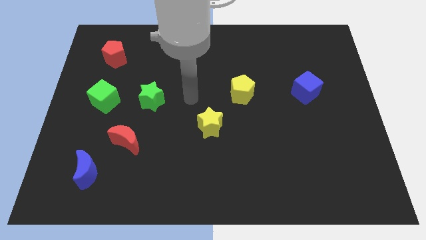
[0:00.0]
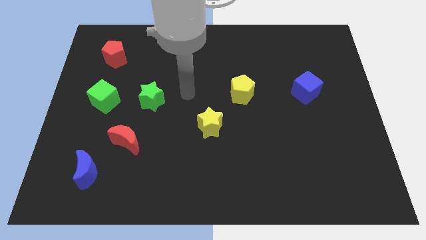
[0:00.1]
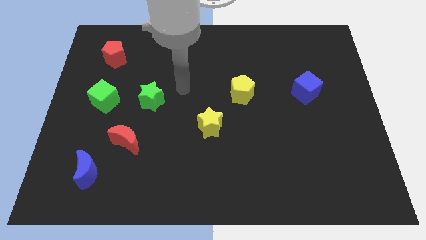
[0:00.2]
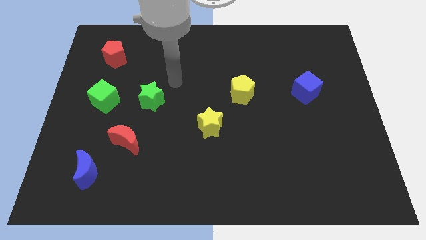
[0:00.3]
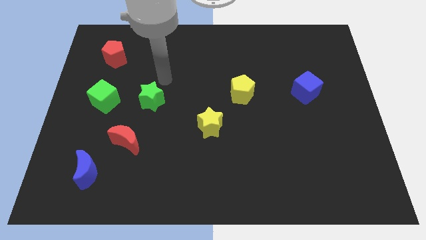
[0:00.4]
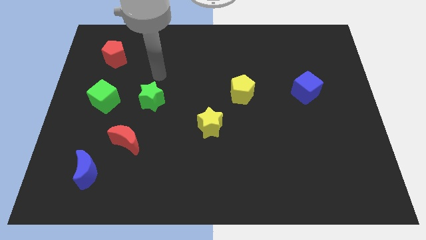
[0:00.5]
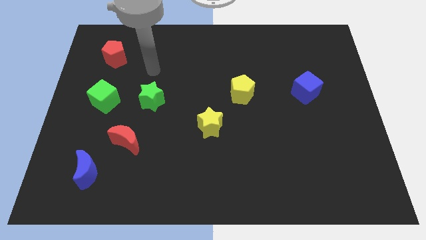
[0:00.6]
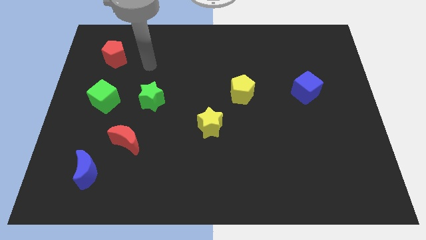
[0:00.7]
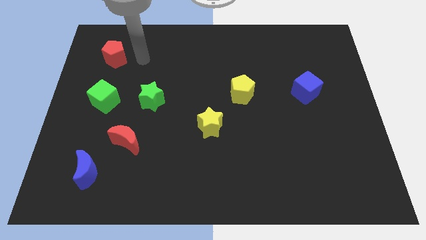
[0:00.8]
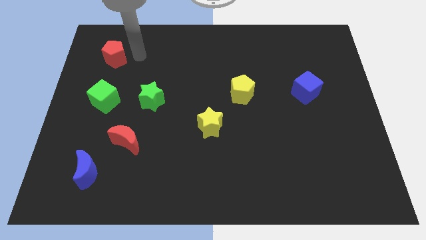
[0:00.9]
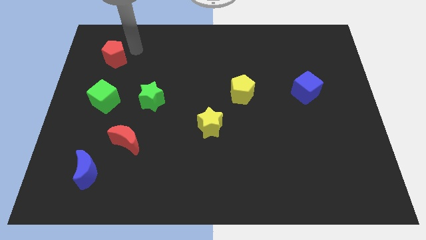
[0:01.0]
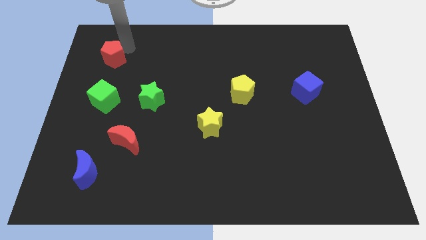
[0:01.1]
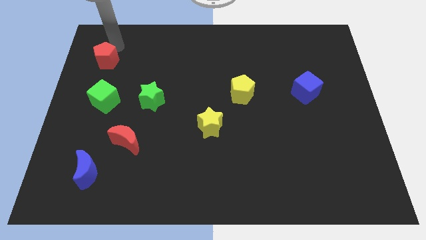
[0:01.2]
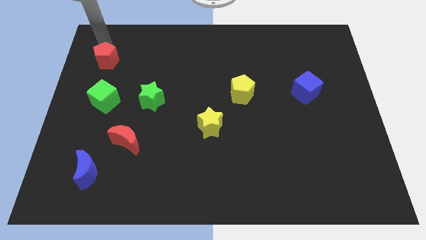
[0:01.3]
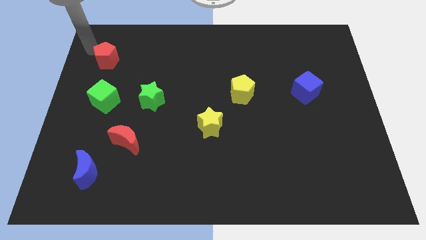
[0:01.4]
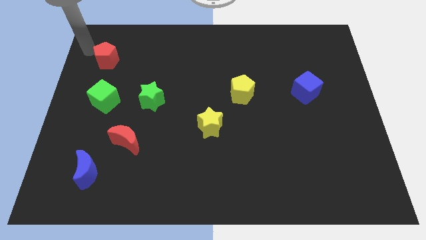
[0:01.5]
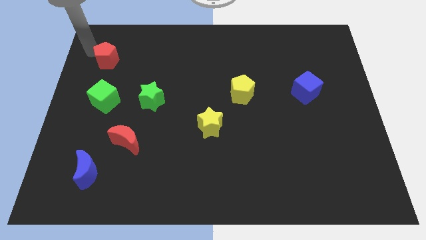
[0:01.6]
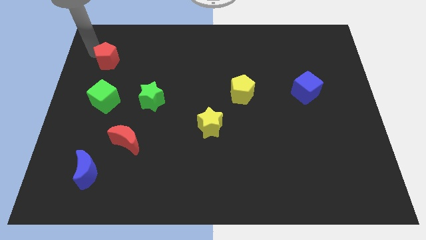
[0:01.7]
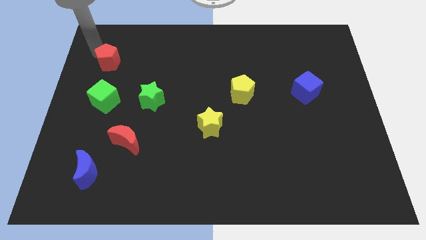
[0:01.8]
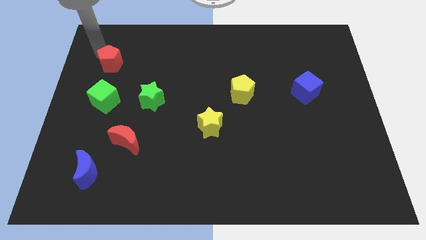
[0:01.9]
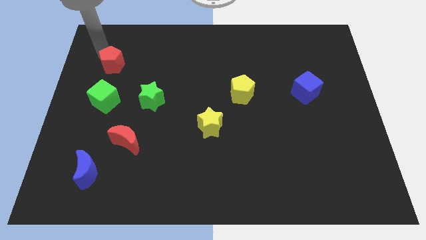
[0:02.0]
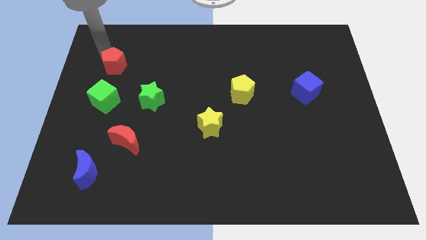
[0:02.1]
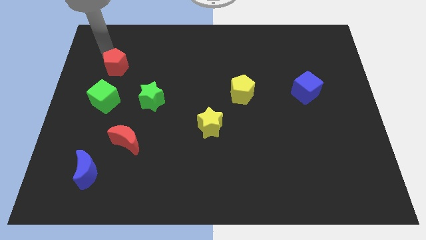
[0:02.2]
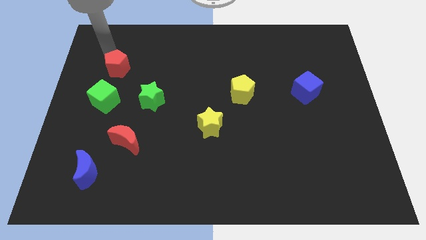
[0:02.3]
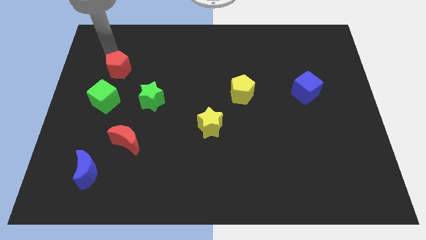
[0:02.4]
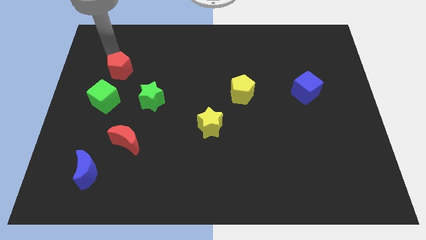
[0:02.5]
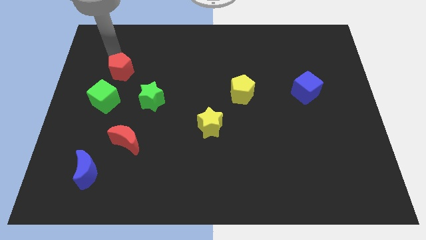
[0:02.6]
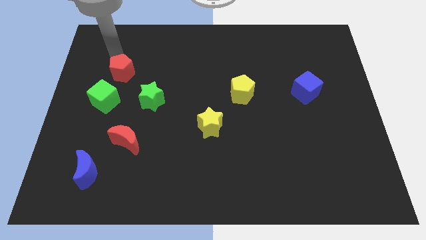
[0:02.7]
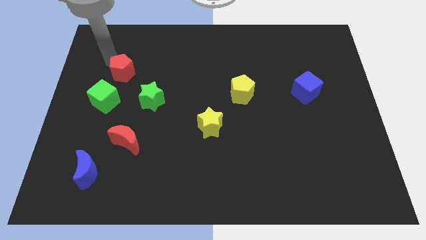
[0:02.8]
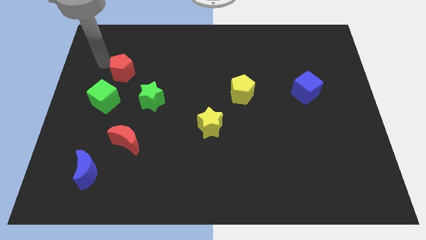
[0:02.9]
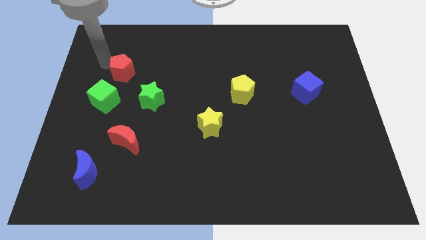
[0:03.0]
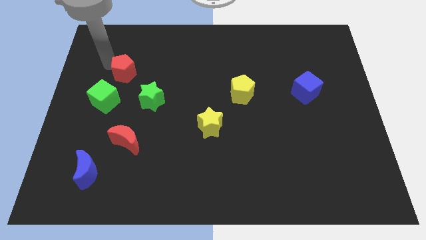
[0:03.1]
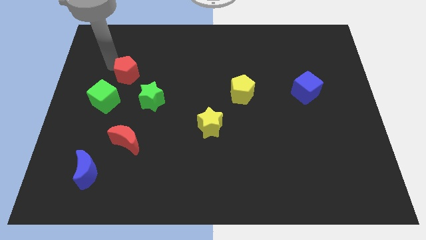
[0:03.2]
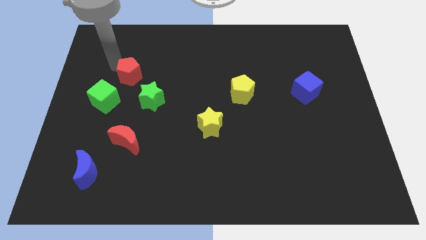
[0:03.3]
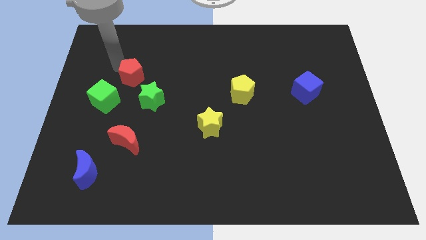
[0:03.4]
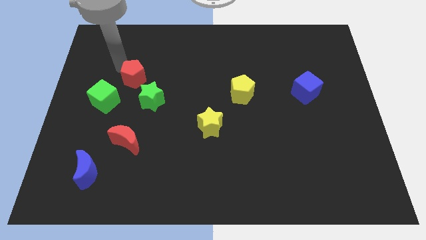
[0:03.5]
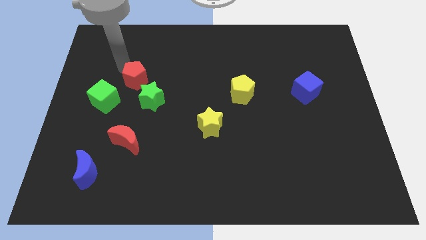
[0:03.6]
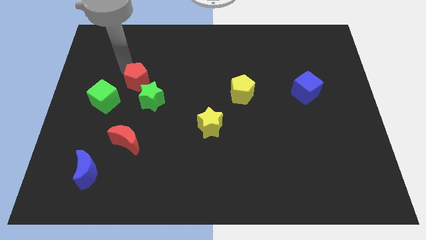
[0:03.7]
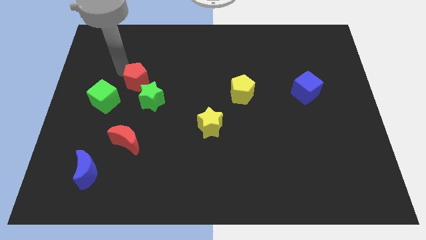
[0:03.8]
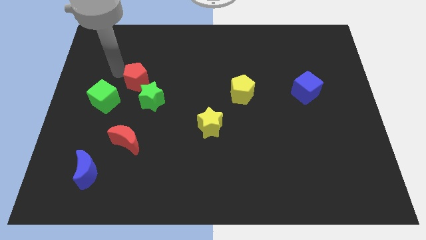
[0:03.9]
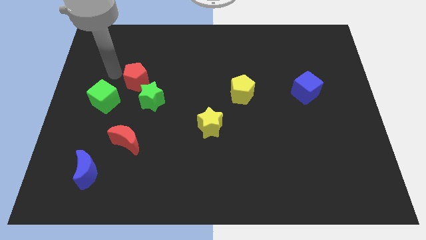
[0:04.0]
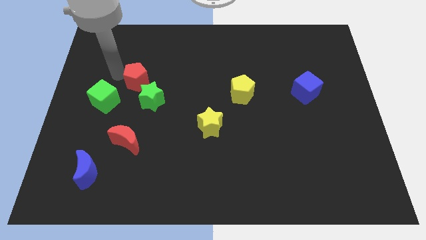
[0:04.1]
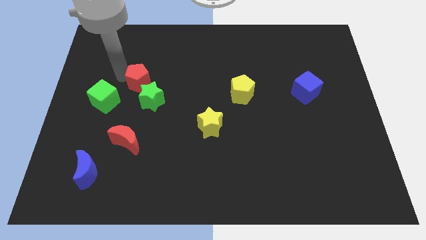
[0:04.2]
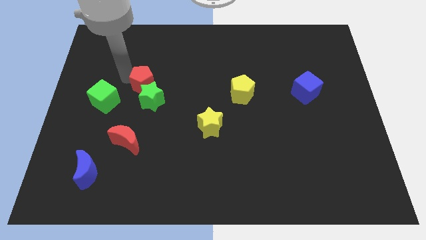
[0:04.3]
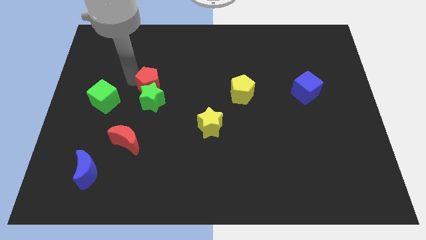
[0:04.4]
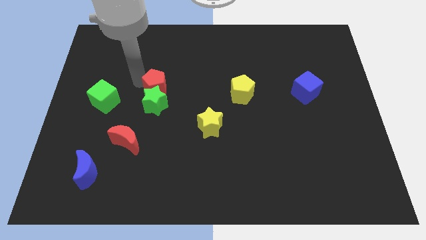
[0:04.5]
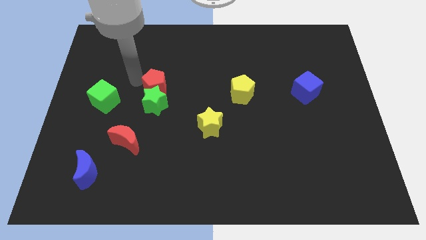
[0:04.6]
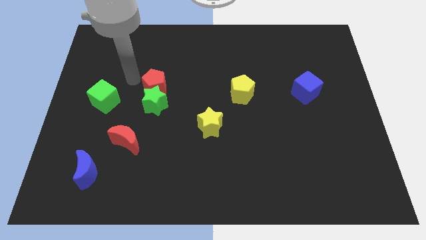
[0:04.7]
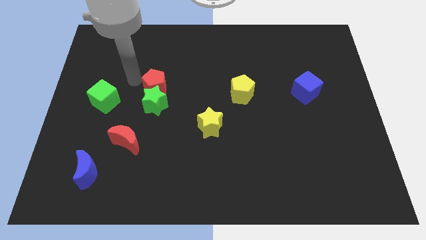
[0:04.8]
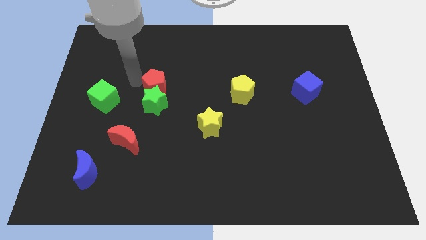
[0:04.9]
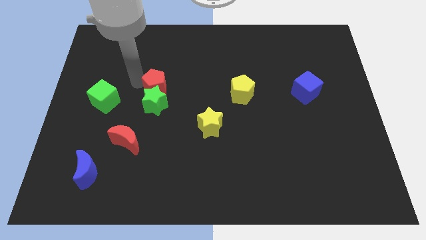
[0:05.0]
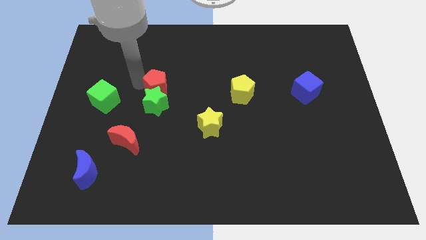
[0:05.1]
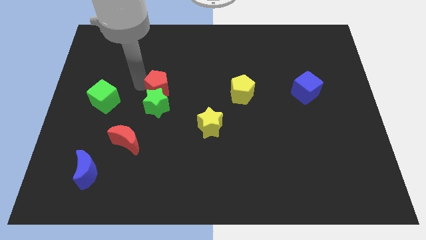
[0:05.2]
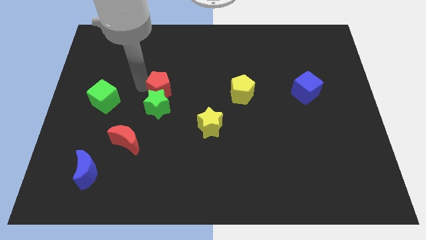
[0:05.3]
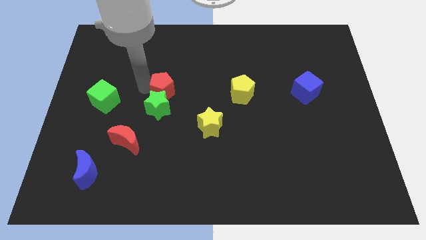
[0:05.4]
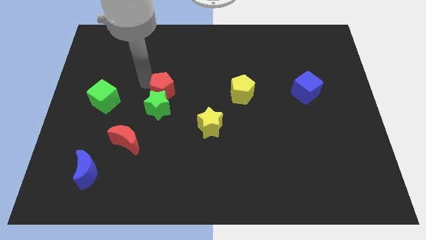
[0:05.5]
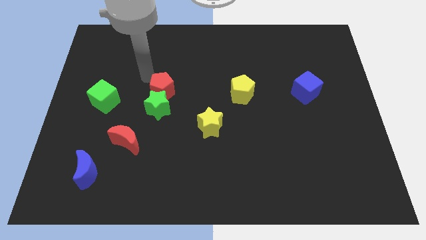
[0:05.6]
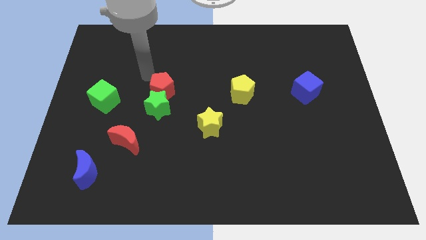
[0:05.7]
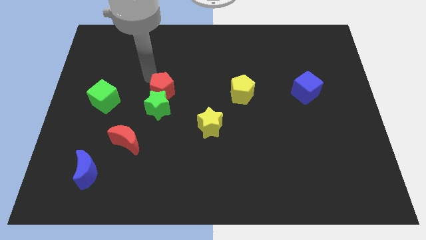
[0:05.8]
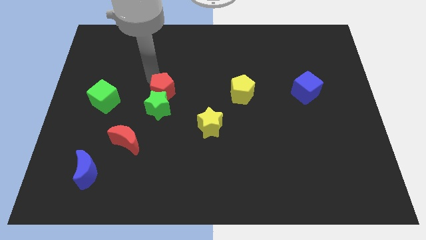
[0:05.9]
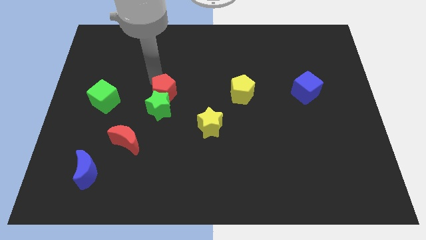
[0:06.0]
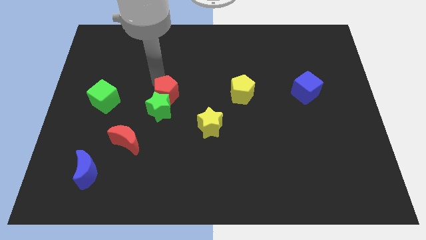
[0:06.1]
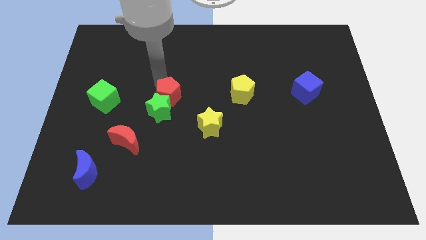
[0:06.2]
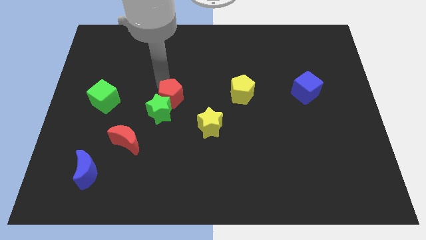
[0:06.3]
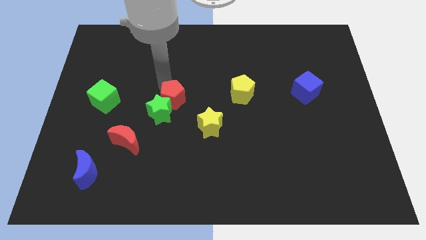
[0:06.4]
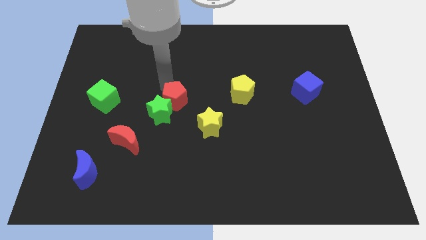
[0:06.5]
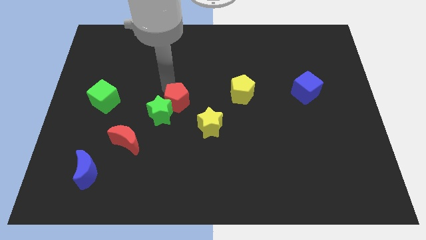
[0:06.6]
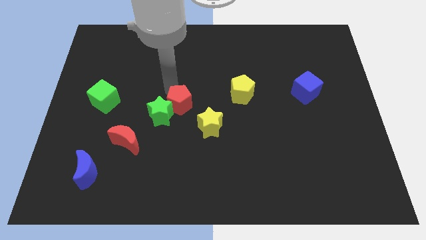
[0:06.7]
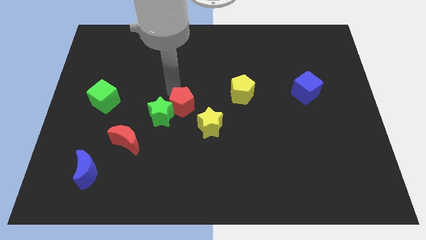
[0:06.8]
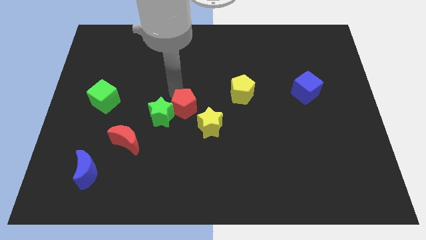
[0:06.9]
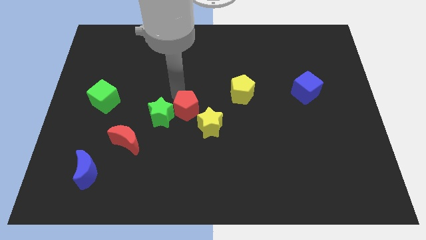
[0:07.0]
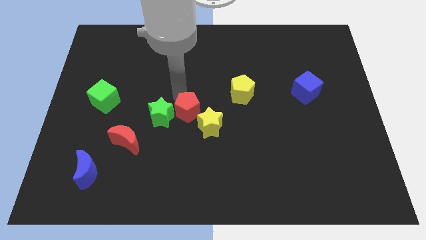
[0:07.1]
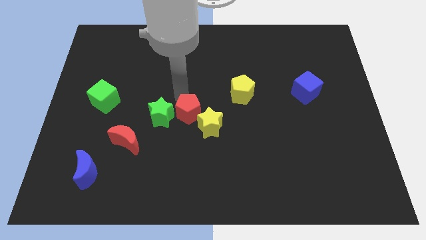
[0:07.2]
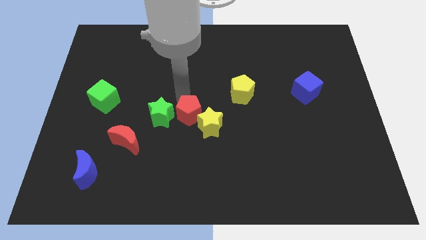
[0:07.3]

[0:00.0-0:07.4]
move the red pentagon towards the yellow star
